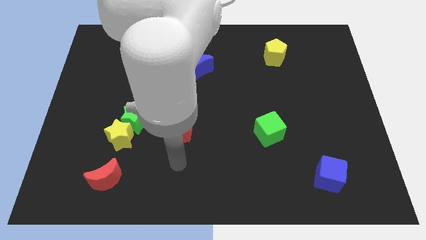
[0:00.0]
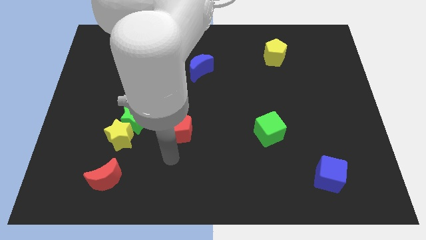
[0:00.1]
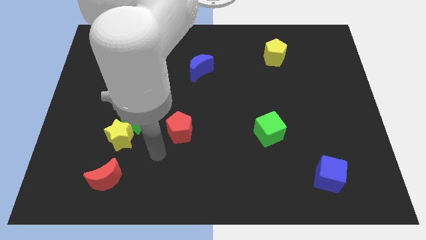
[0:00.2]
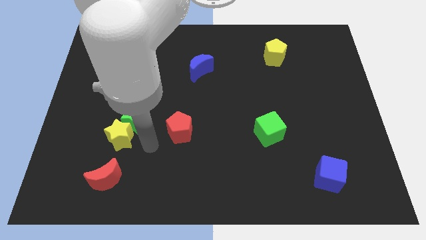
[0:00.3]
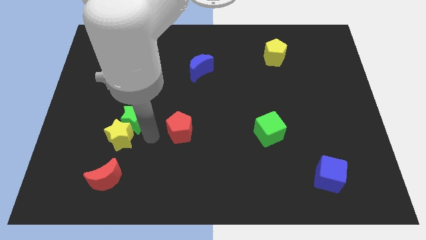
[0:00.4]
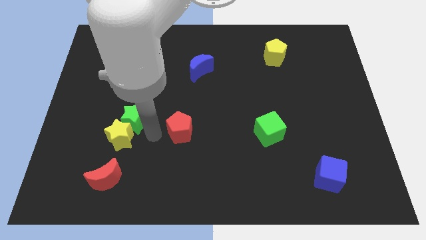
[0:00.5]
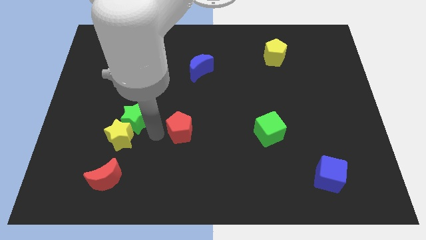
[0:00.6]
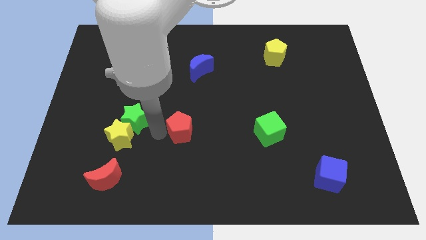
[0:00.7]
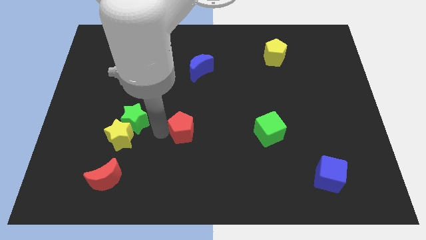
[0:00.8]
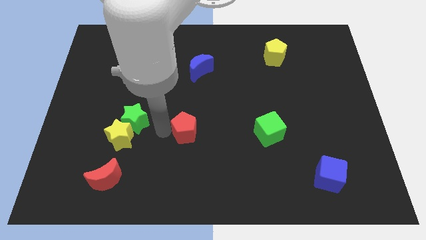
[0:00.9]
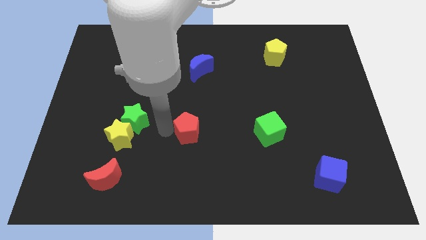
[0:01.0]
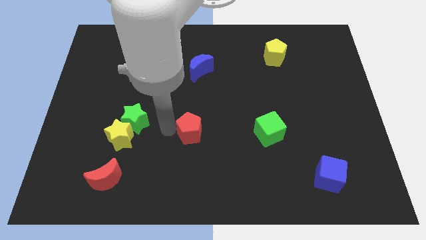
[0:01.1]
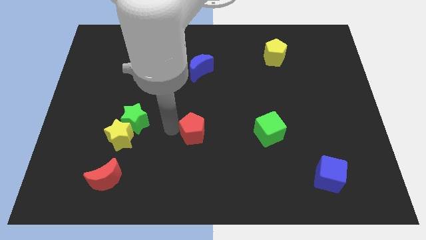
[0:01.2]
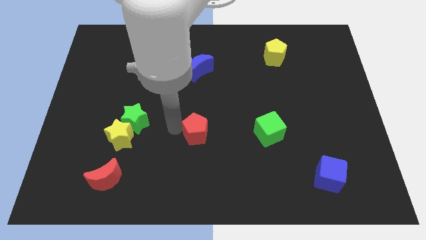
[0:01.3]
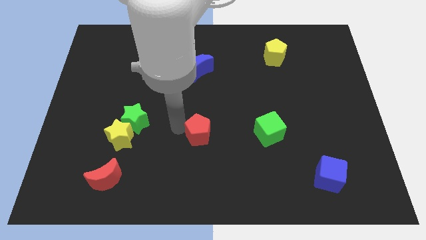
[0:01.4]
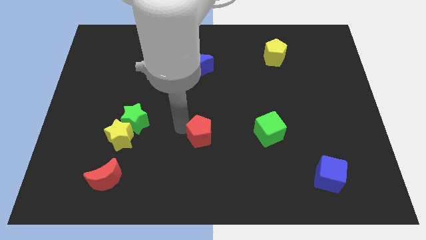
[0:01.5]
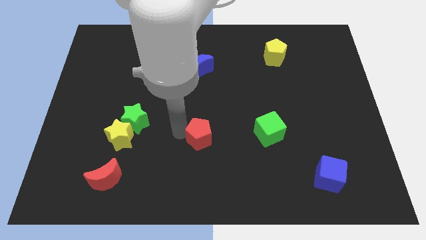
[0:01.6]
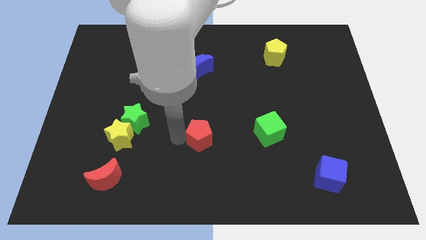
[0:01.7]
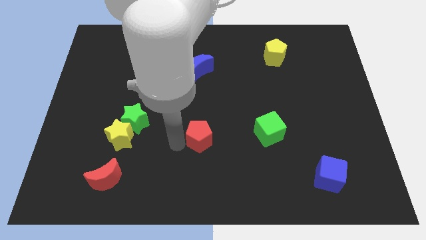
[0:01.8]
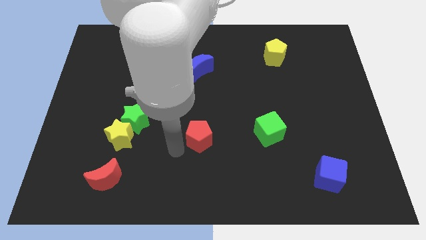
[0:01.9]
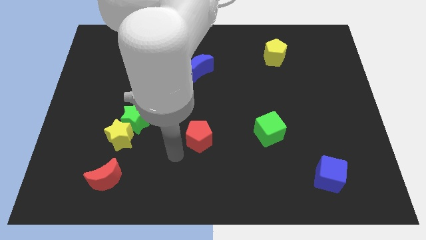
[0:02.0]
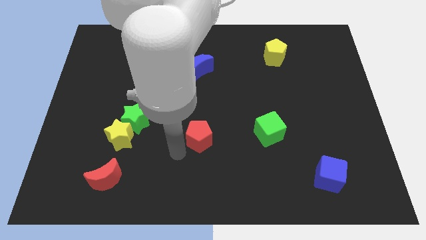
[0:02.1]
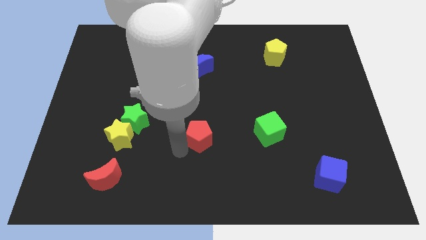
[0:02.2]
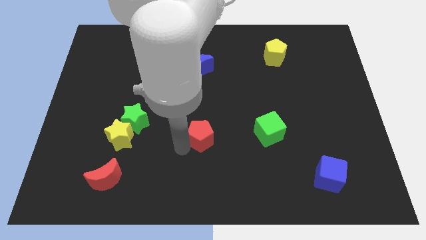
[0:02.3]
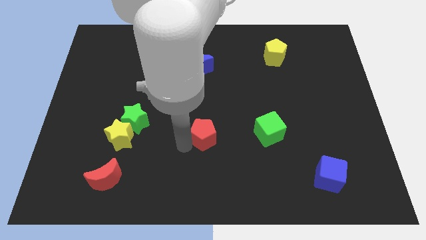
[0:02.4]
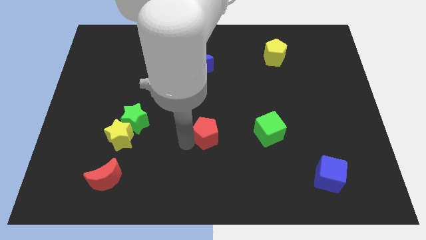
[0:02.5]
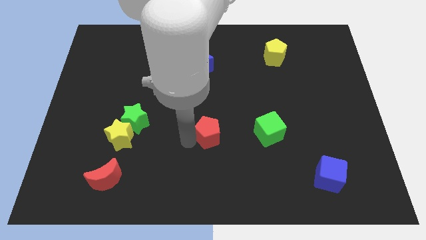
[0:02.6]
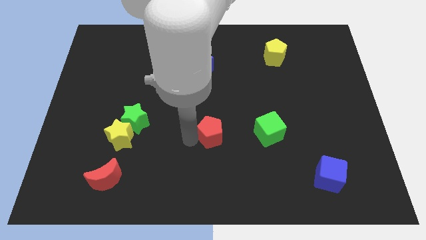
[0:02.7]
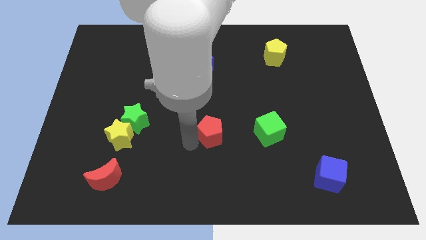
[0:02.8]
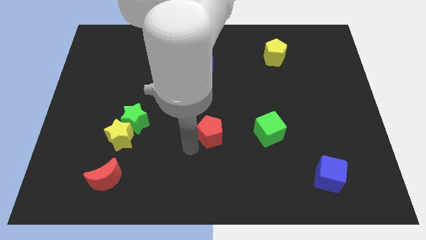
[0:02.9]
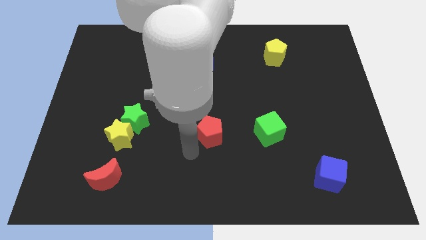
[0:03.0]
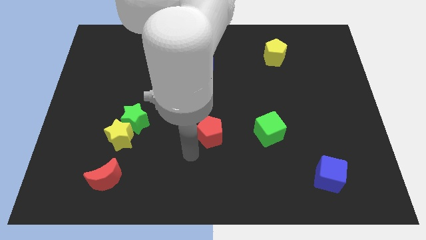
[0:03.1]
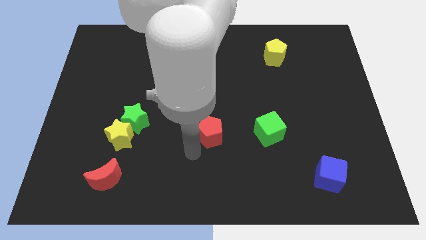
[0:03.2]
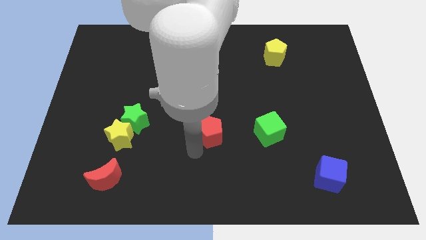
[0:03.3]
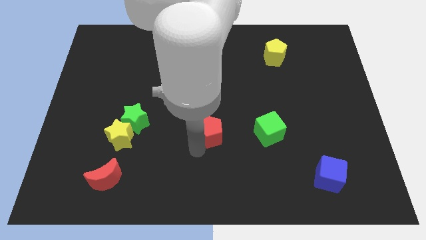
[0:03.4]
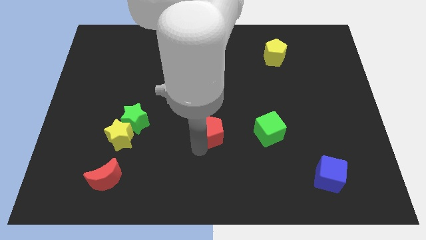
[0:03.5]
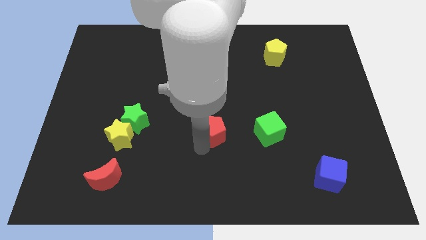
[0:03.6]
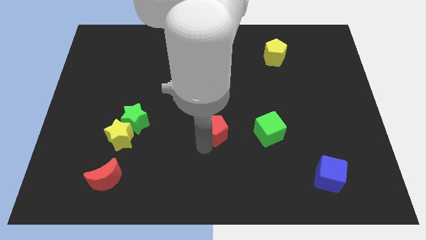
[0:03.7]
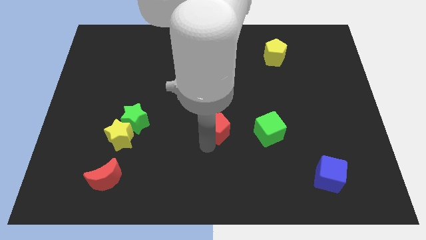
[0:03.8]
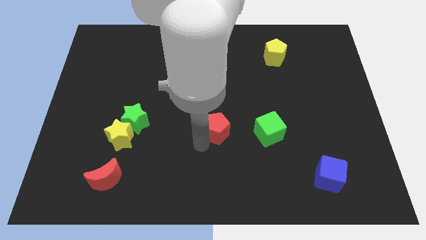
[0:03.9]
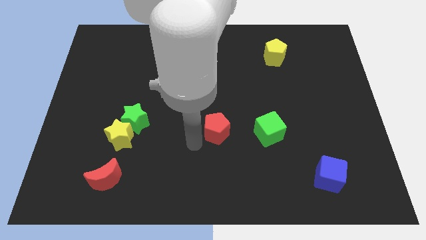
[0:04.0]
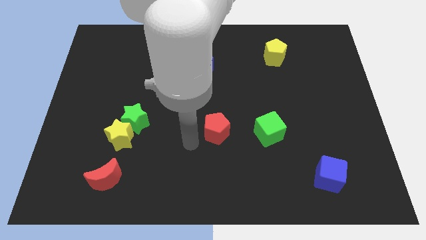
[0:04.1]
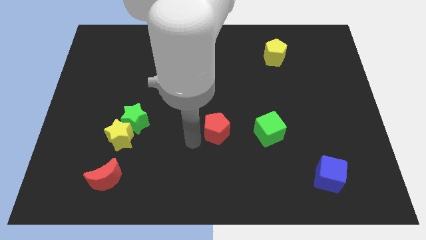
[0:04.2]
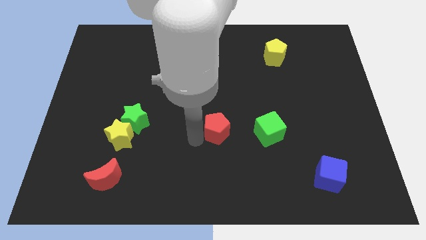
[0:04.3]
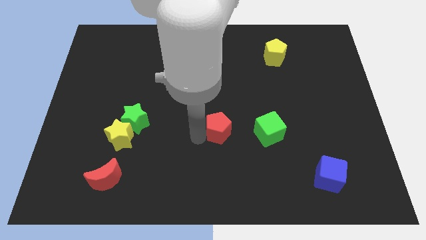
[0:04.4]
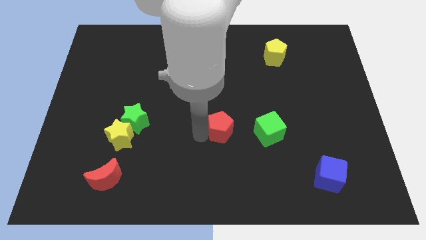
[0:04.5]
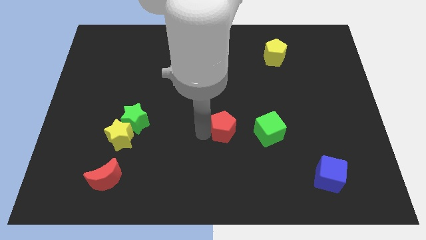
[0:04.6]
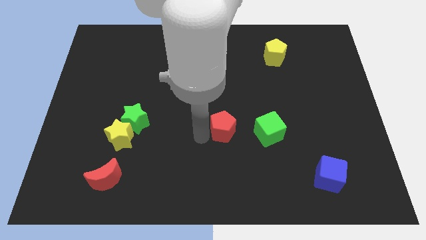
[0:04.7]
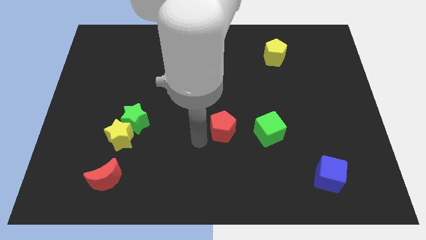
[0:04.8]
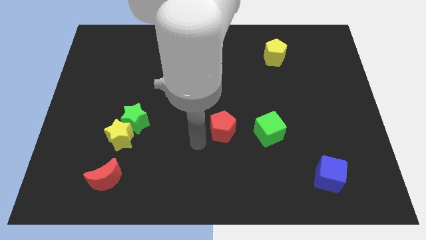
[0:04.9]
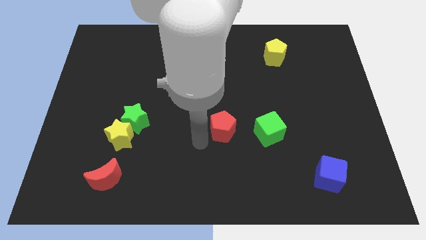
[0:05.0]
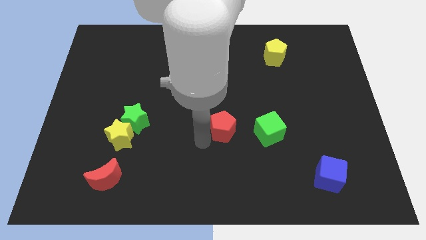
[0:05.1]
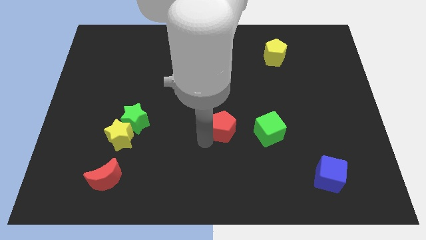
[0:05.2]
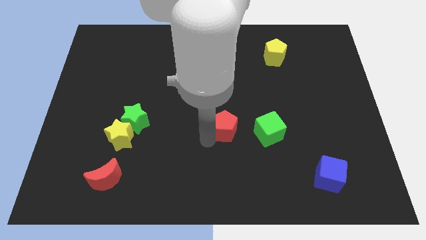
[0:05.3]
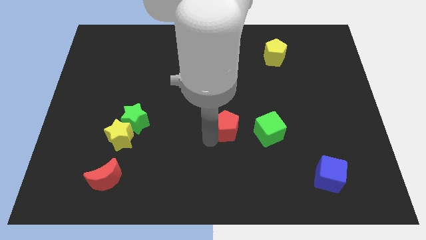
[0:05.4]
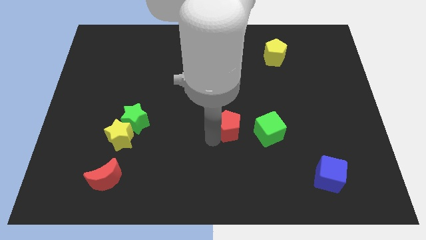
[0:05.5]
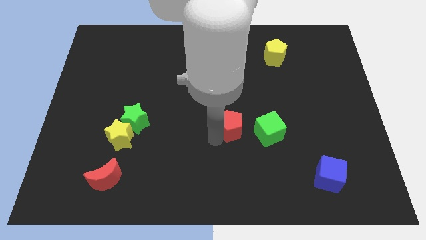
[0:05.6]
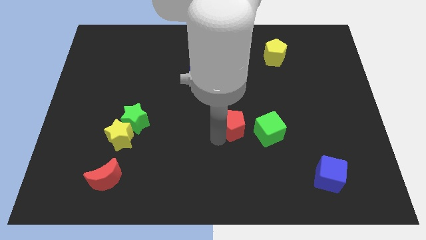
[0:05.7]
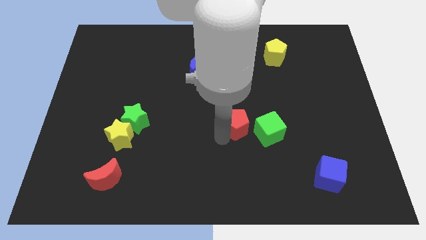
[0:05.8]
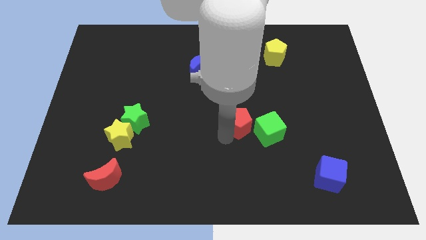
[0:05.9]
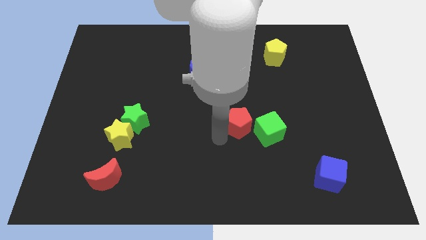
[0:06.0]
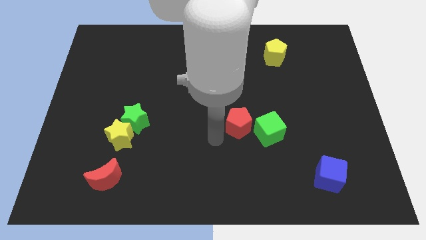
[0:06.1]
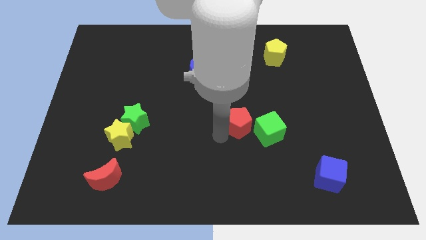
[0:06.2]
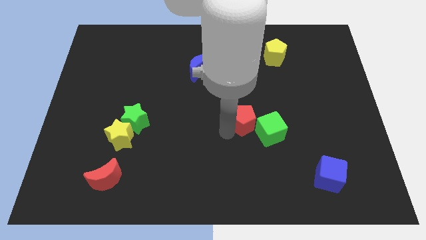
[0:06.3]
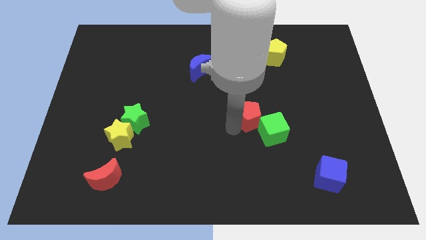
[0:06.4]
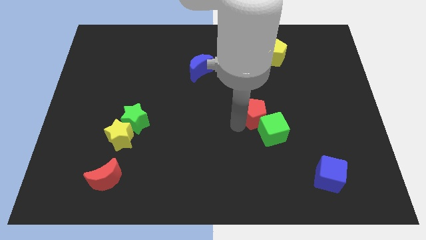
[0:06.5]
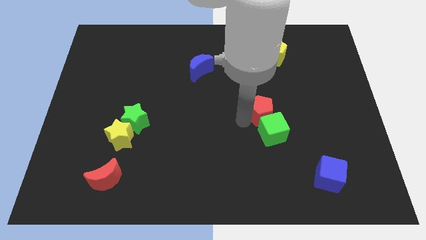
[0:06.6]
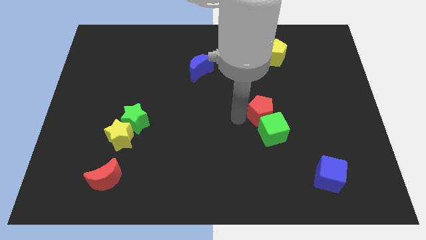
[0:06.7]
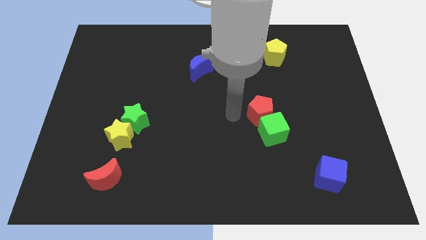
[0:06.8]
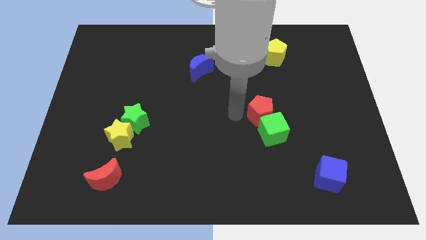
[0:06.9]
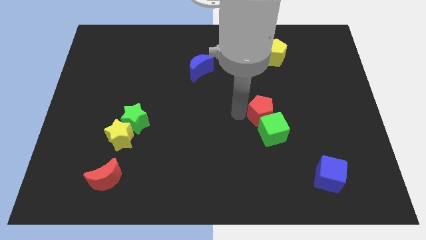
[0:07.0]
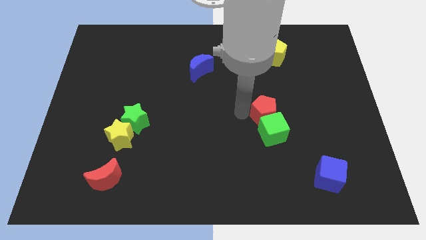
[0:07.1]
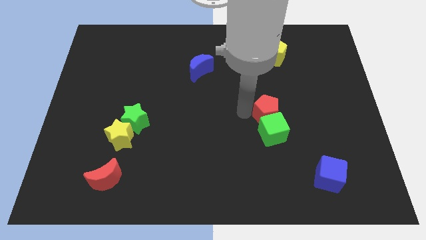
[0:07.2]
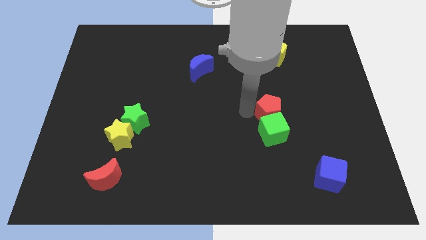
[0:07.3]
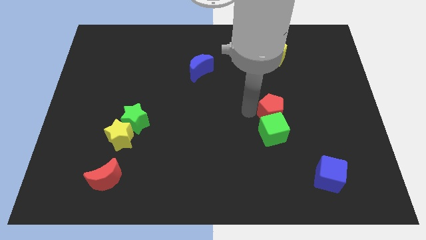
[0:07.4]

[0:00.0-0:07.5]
slide the red pentagon to the right

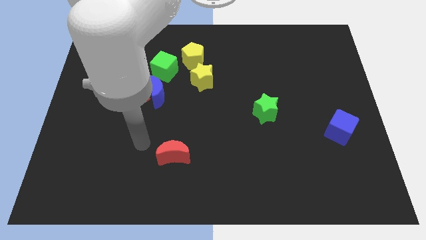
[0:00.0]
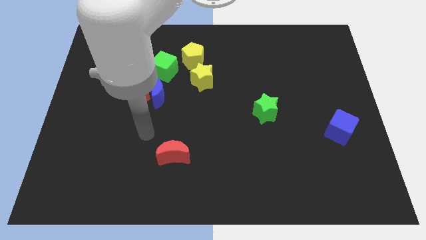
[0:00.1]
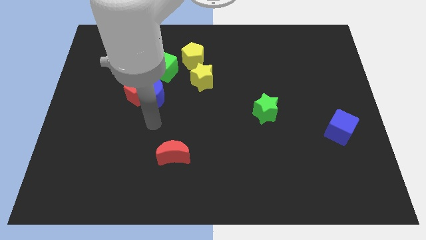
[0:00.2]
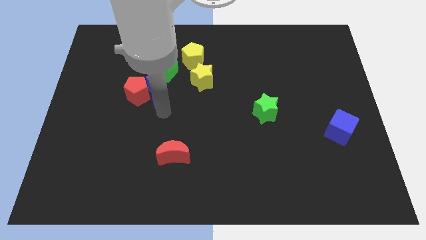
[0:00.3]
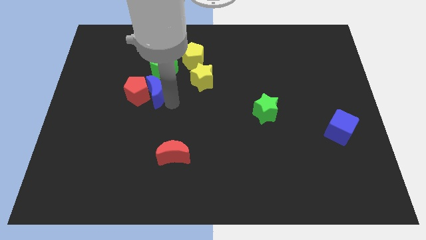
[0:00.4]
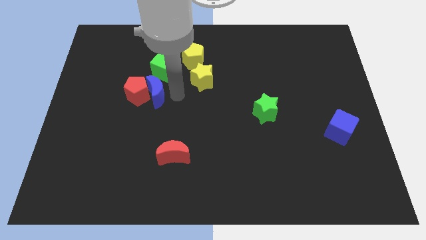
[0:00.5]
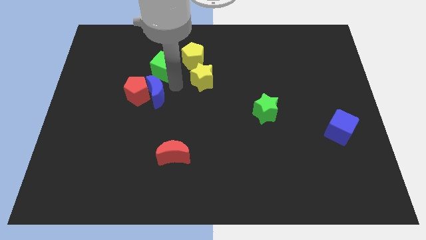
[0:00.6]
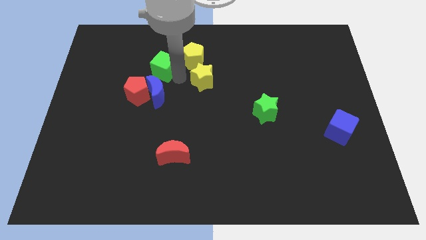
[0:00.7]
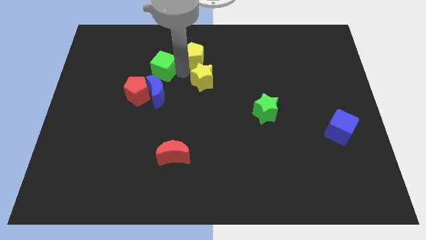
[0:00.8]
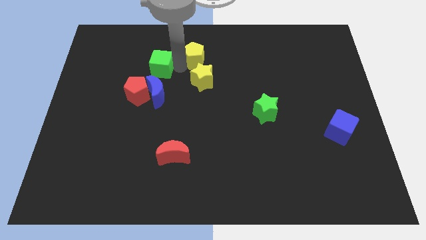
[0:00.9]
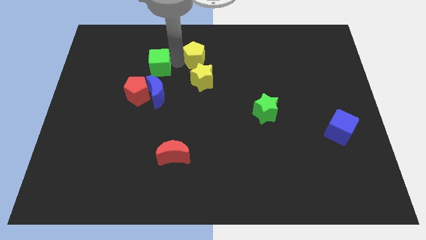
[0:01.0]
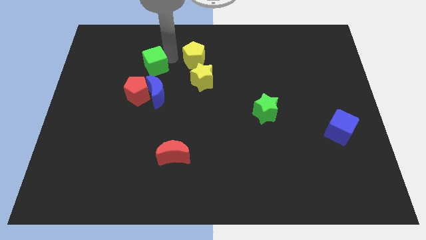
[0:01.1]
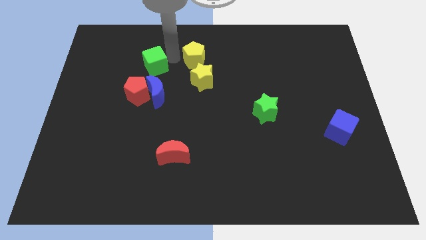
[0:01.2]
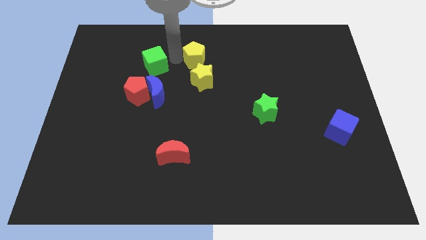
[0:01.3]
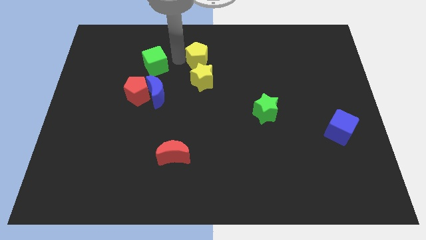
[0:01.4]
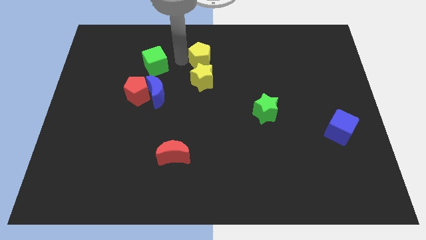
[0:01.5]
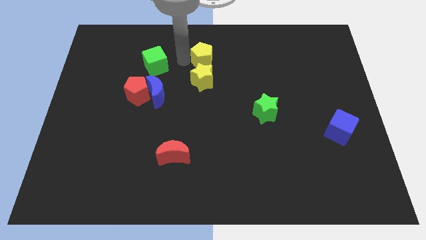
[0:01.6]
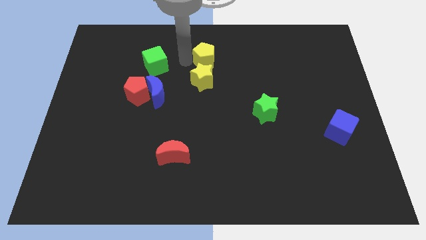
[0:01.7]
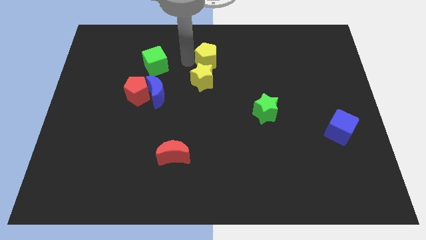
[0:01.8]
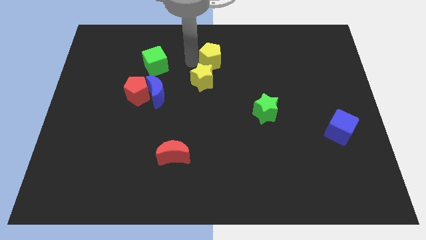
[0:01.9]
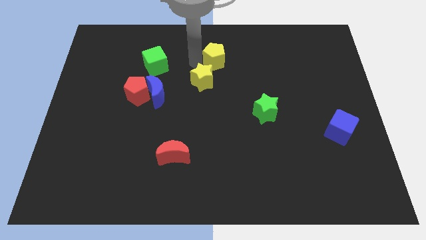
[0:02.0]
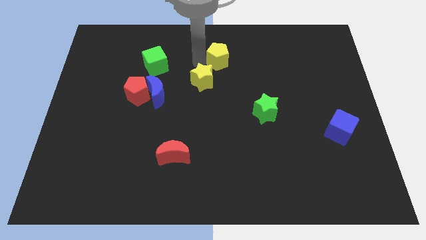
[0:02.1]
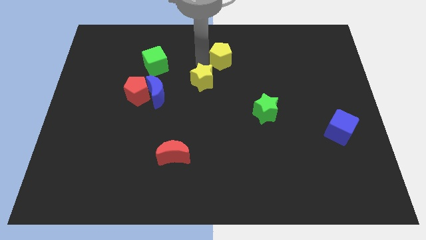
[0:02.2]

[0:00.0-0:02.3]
move the yellow pentagon right a little bit
